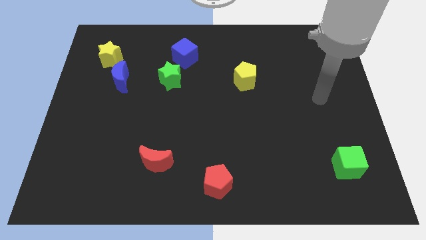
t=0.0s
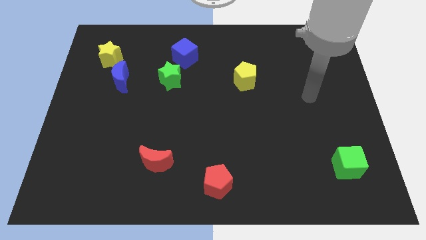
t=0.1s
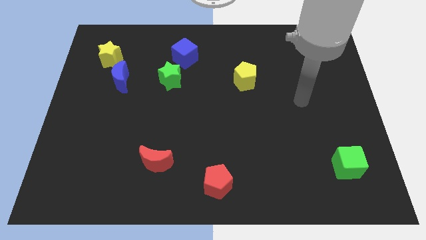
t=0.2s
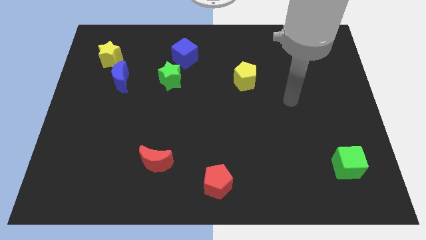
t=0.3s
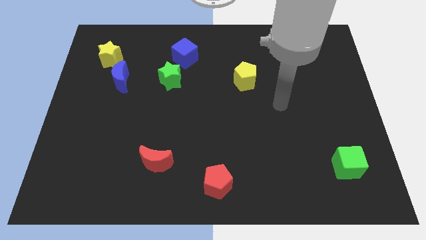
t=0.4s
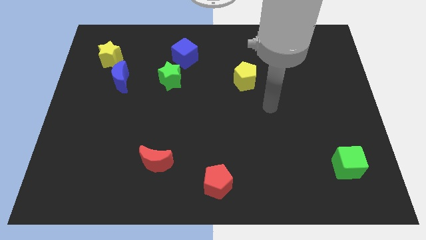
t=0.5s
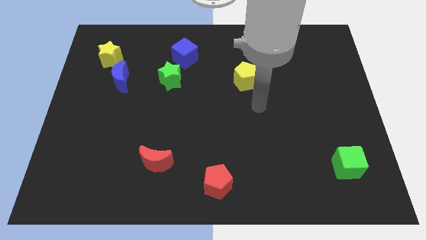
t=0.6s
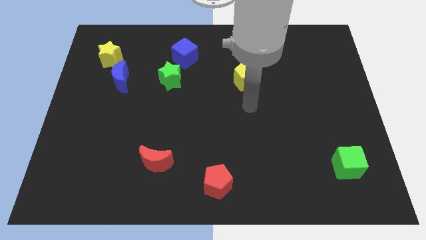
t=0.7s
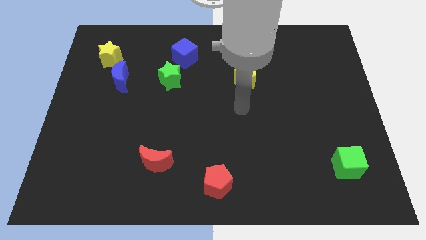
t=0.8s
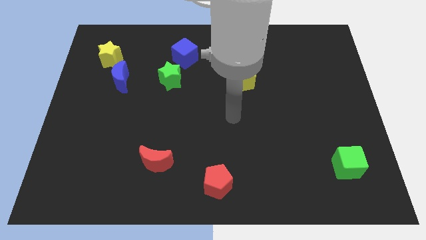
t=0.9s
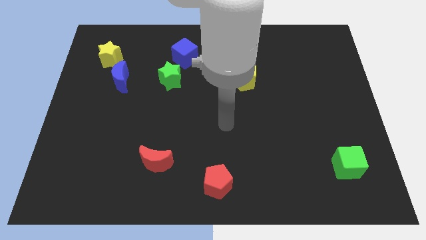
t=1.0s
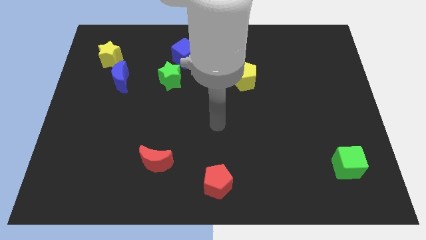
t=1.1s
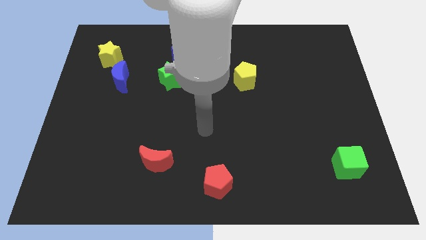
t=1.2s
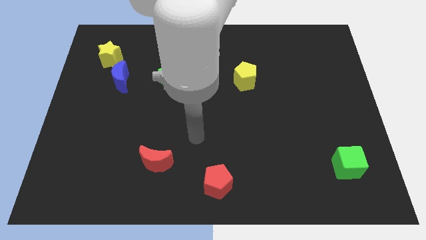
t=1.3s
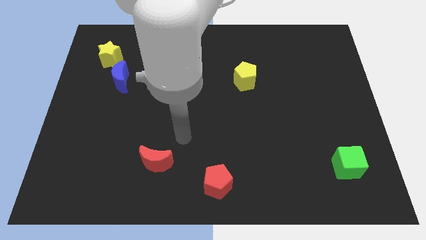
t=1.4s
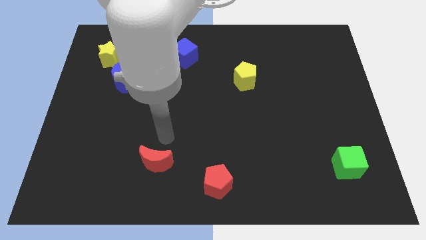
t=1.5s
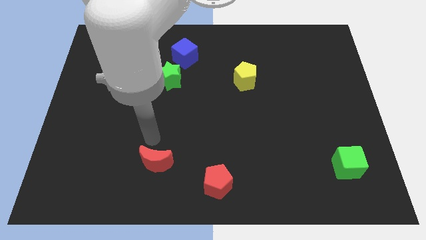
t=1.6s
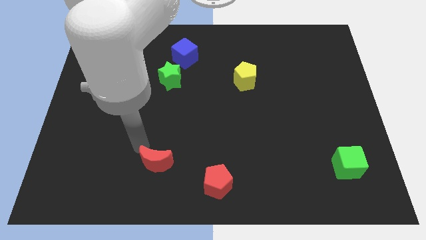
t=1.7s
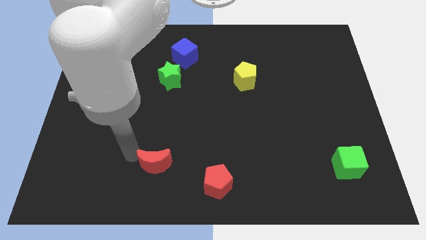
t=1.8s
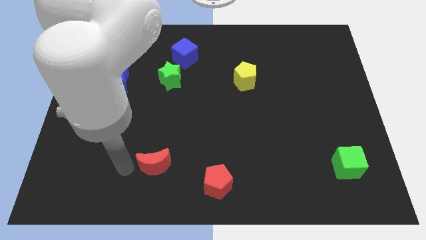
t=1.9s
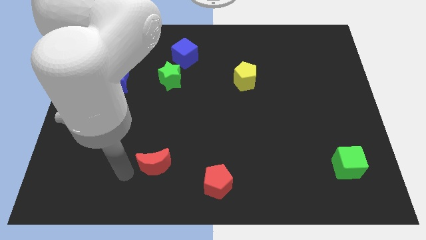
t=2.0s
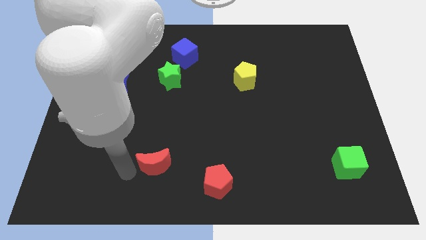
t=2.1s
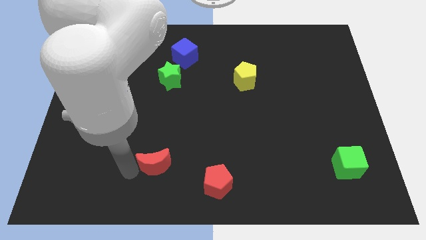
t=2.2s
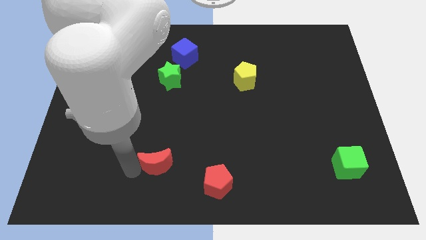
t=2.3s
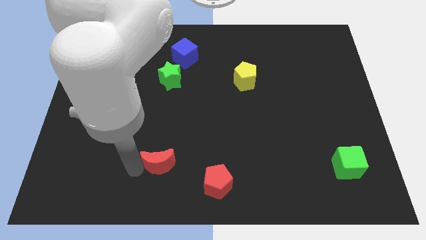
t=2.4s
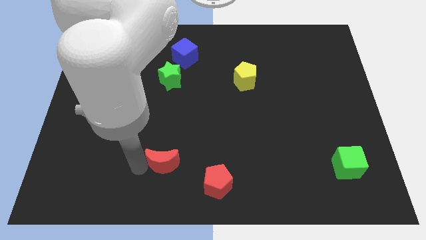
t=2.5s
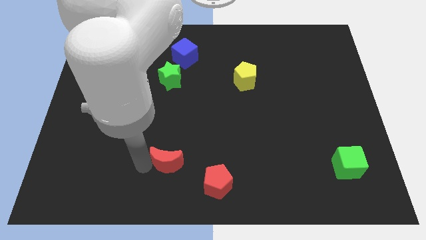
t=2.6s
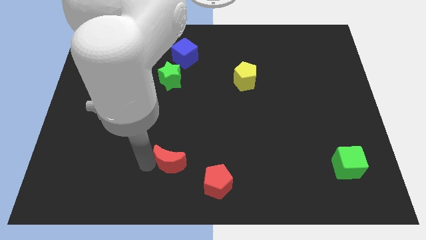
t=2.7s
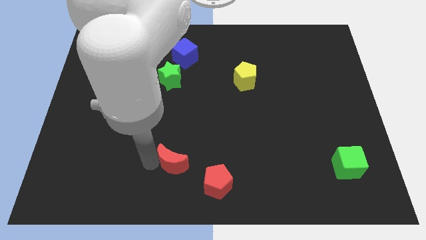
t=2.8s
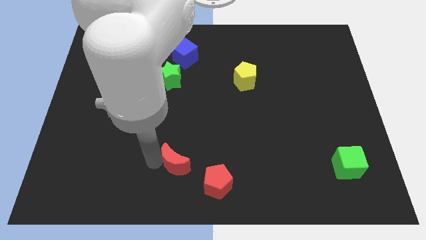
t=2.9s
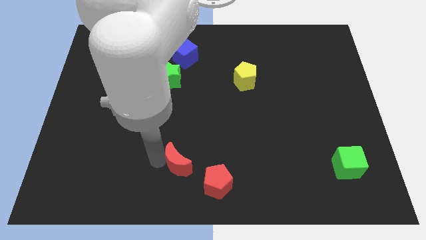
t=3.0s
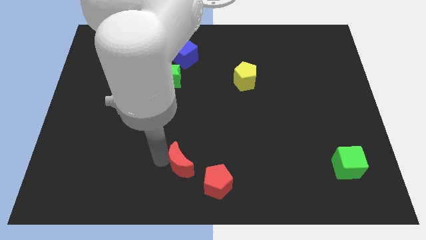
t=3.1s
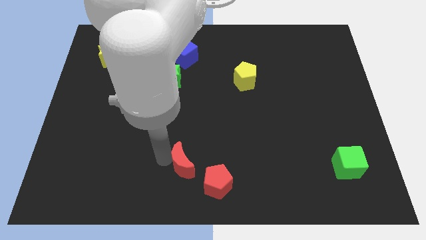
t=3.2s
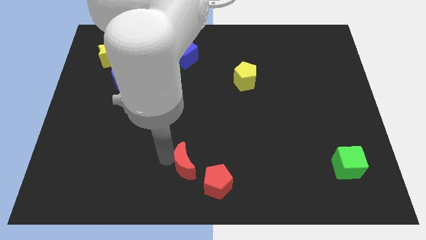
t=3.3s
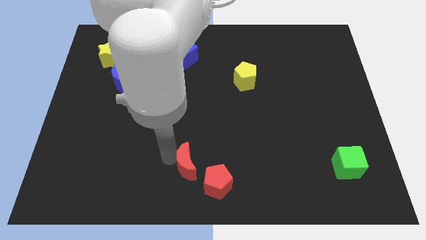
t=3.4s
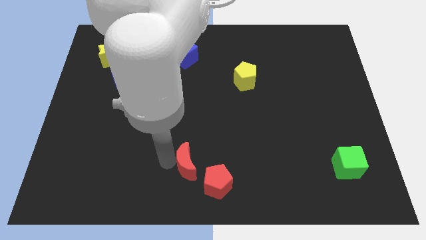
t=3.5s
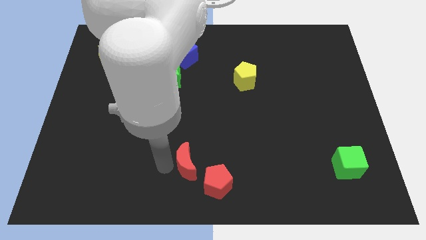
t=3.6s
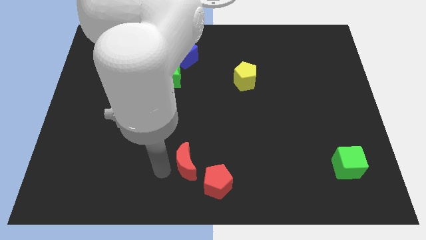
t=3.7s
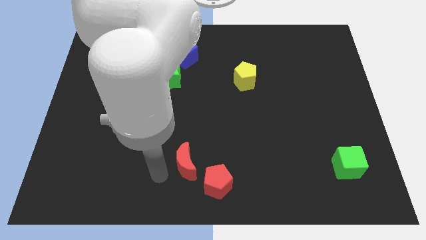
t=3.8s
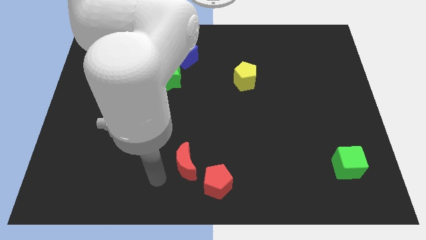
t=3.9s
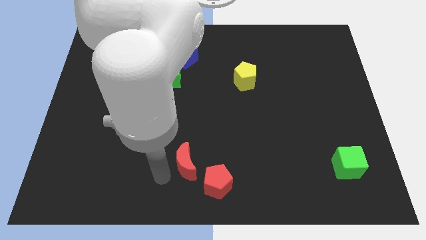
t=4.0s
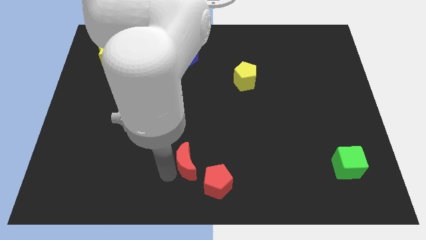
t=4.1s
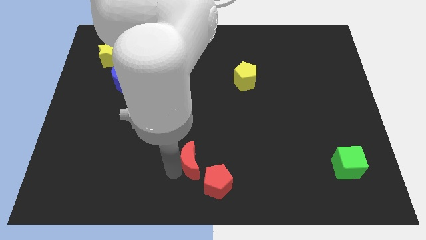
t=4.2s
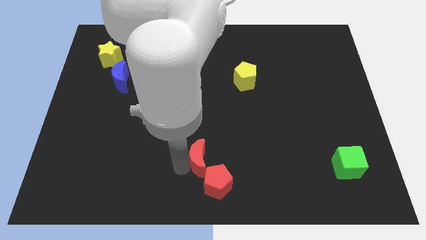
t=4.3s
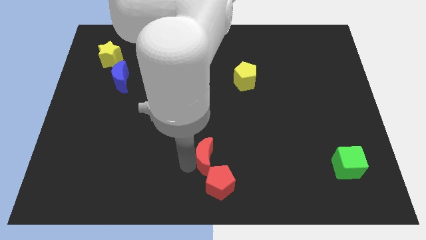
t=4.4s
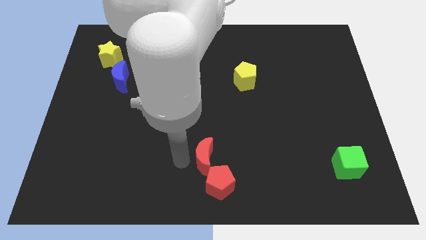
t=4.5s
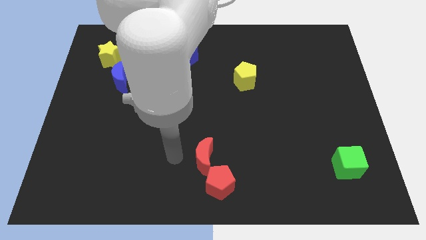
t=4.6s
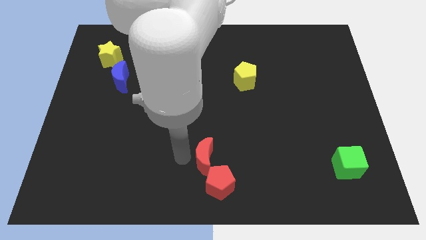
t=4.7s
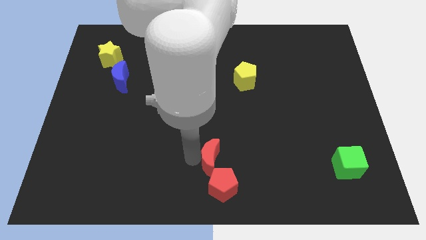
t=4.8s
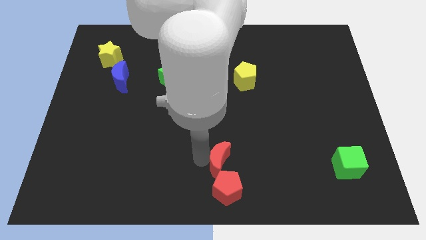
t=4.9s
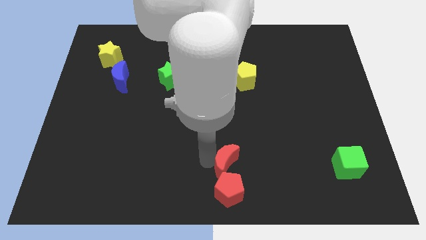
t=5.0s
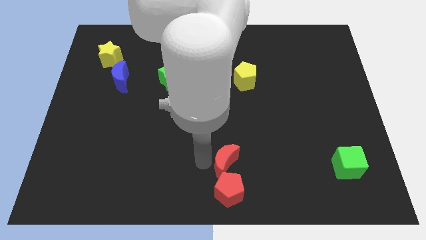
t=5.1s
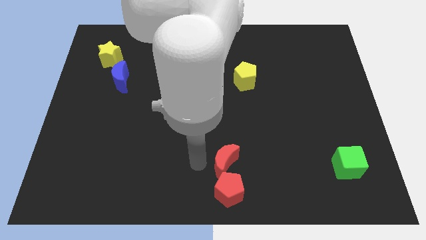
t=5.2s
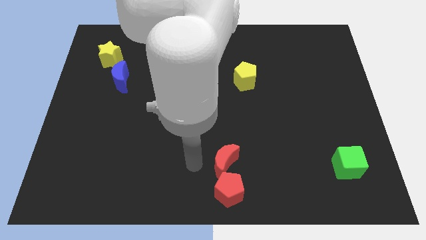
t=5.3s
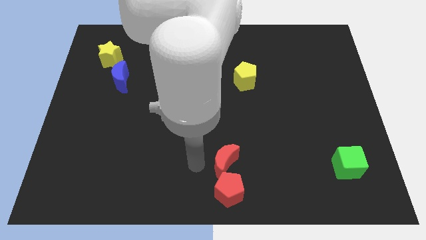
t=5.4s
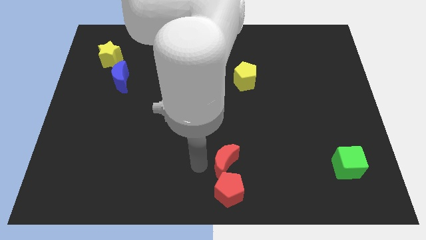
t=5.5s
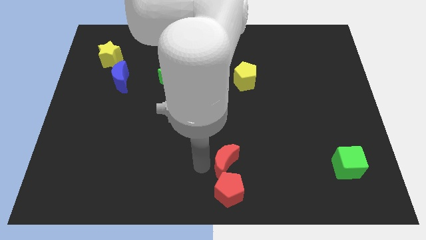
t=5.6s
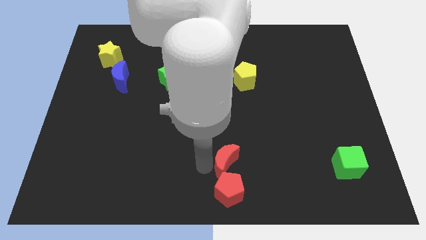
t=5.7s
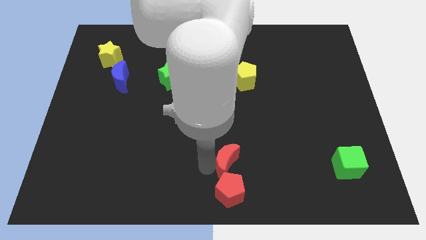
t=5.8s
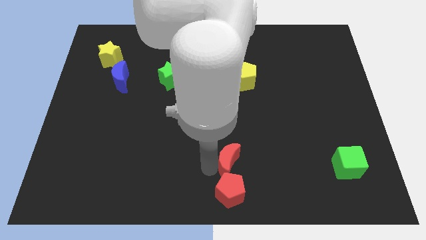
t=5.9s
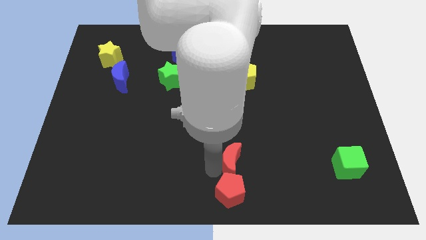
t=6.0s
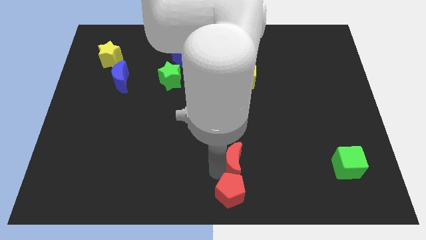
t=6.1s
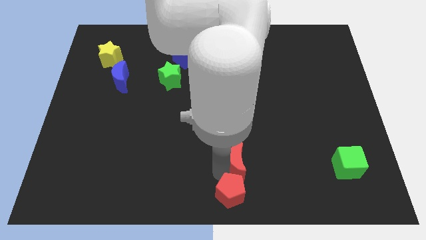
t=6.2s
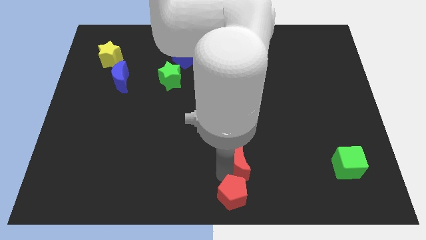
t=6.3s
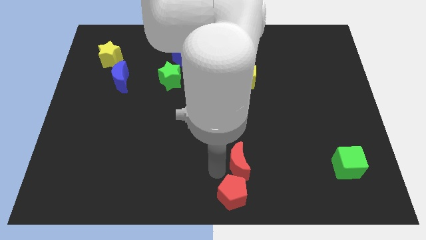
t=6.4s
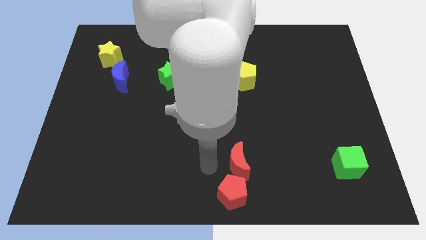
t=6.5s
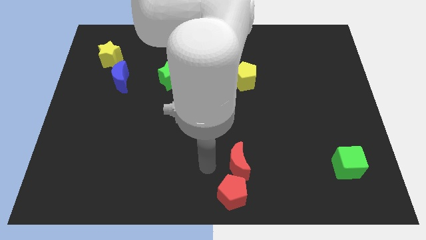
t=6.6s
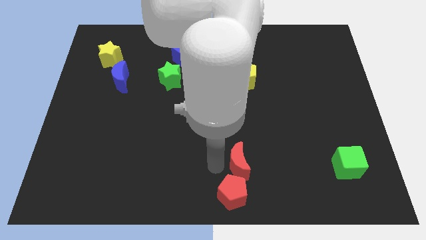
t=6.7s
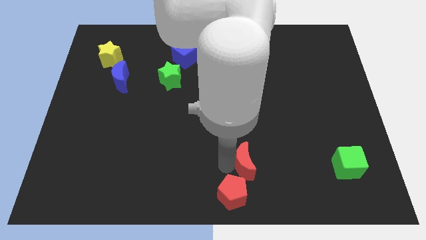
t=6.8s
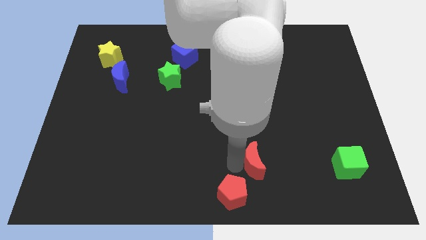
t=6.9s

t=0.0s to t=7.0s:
slide the red moon right

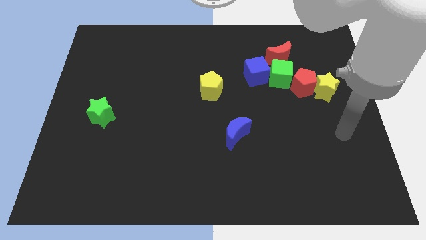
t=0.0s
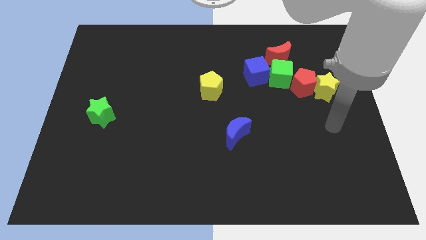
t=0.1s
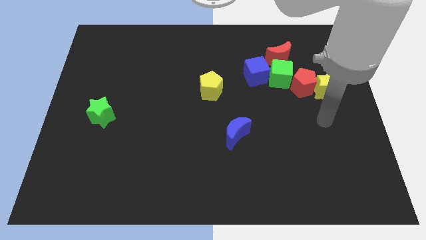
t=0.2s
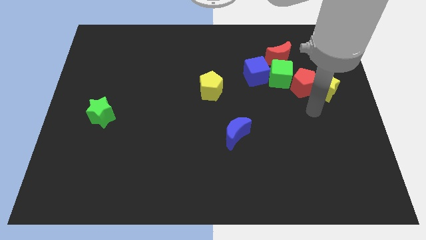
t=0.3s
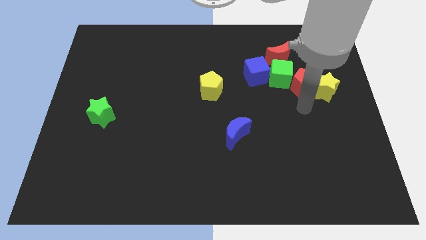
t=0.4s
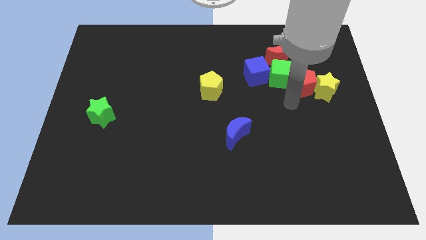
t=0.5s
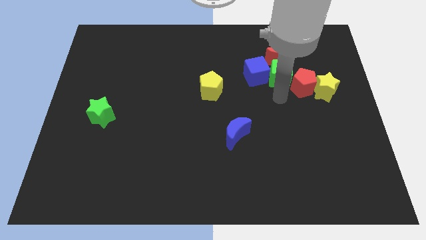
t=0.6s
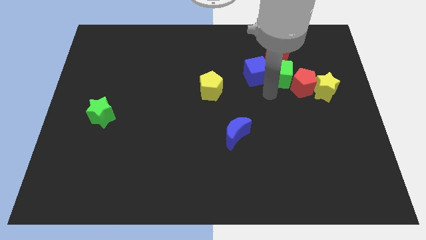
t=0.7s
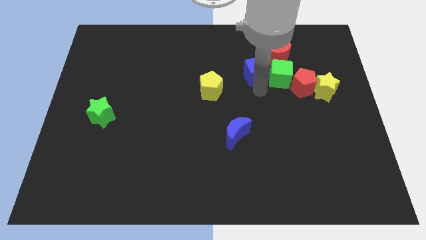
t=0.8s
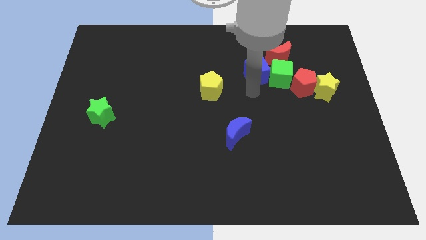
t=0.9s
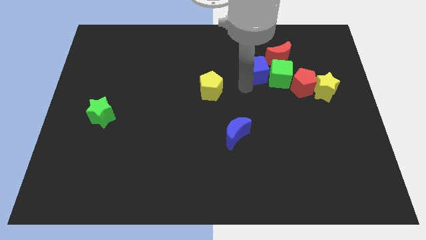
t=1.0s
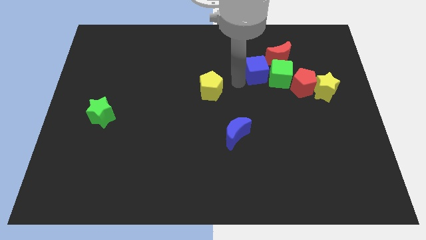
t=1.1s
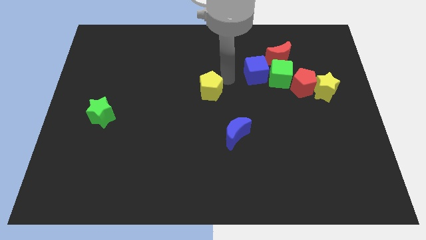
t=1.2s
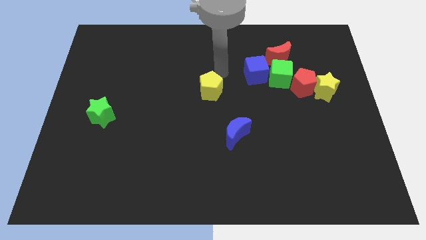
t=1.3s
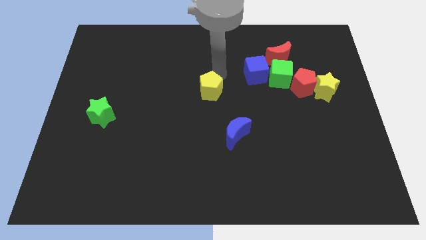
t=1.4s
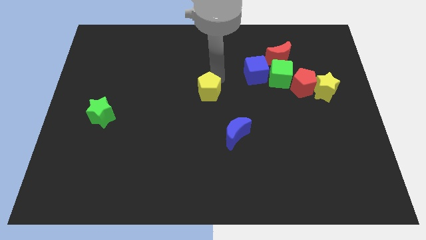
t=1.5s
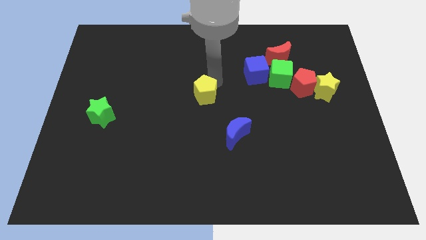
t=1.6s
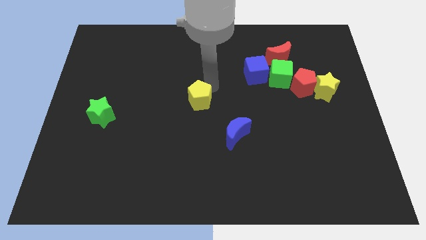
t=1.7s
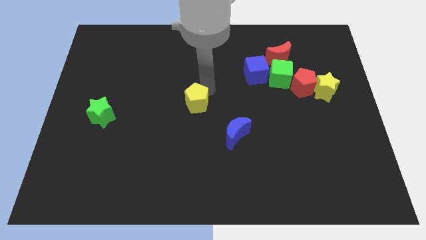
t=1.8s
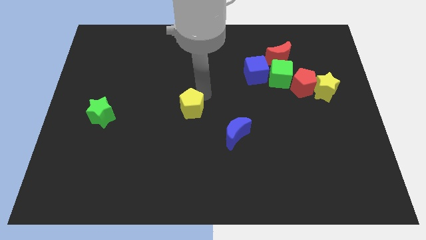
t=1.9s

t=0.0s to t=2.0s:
move the yellow pentagon diagonally down and to the left a bit
